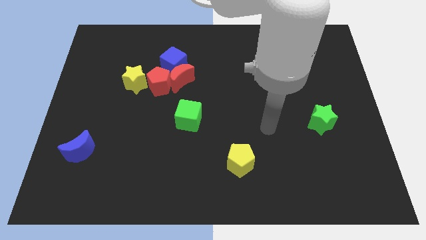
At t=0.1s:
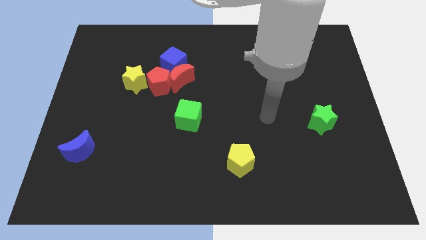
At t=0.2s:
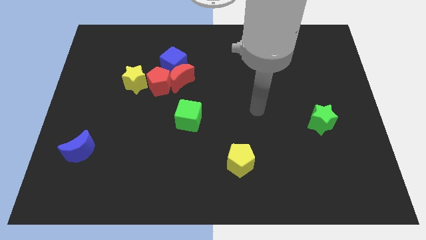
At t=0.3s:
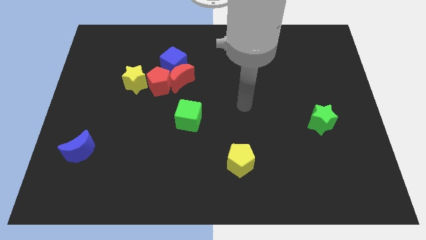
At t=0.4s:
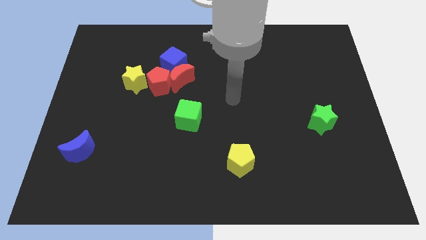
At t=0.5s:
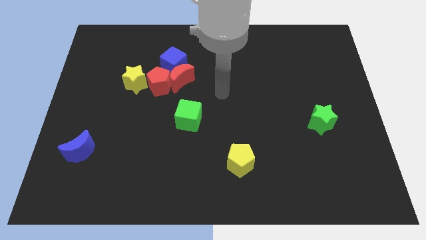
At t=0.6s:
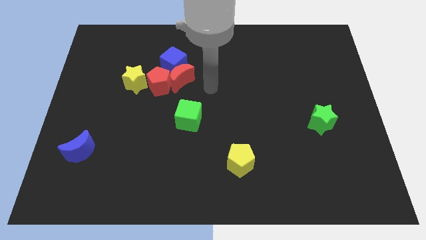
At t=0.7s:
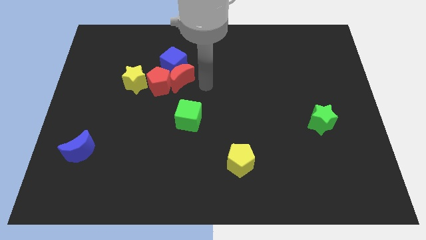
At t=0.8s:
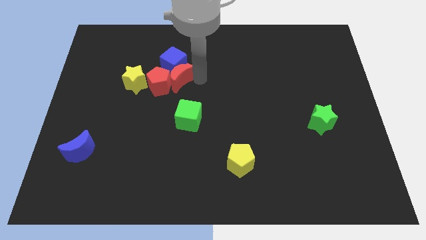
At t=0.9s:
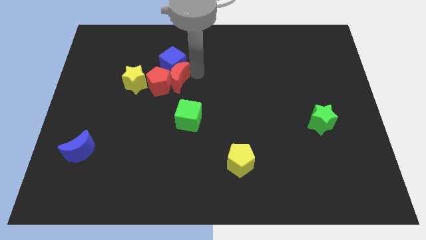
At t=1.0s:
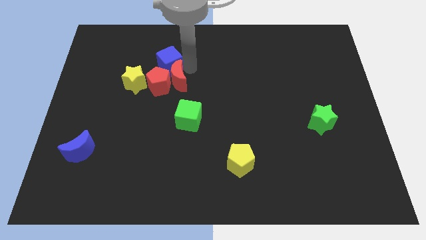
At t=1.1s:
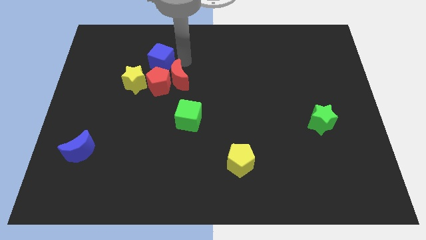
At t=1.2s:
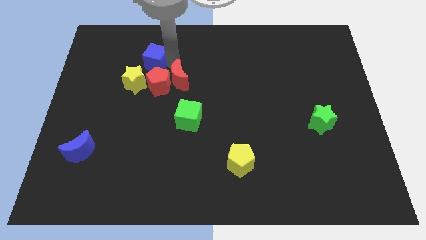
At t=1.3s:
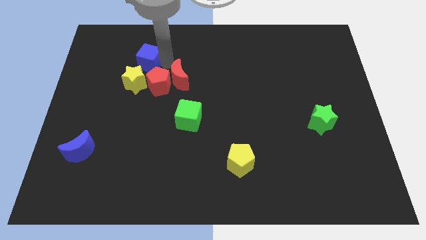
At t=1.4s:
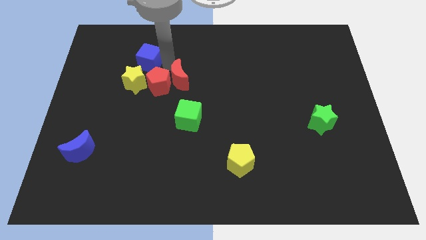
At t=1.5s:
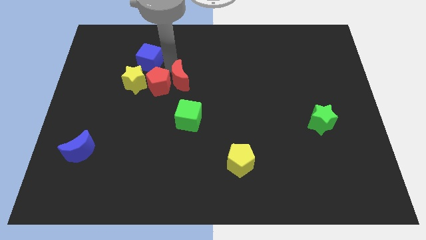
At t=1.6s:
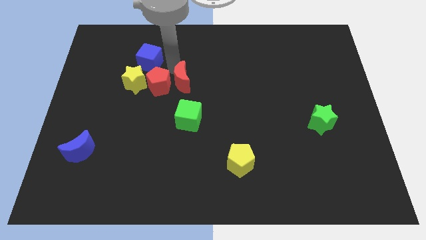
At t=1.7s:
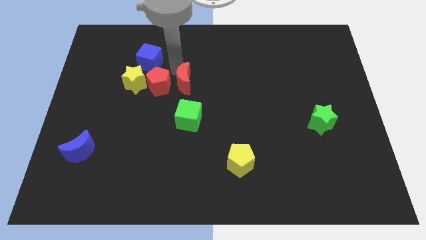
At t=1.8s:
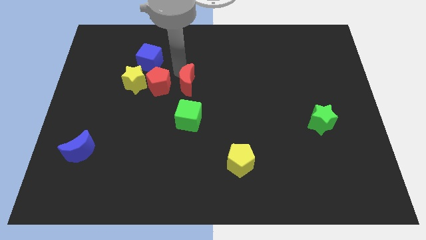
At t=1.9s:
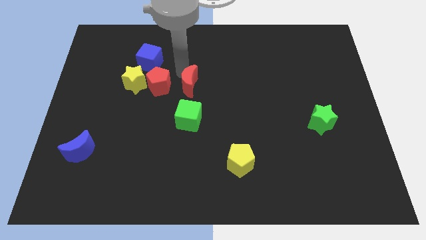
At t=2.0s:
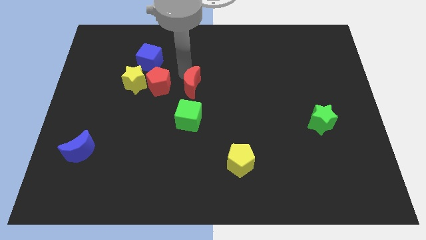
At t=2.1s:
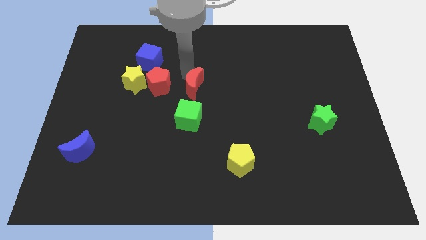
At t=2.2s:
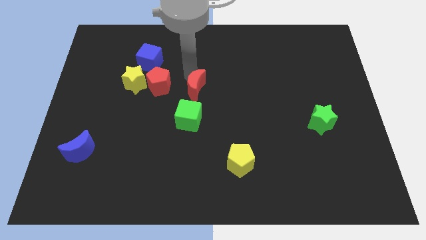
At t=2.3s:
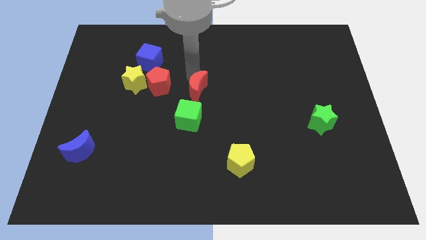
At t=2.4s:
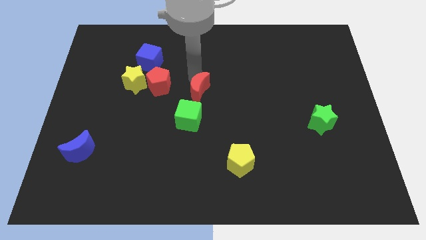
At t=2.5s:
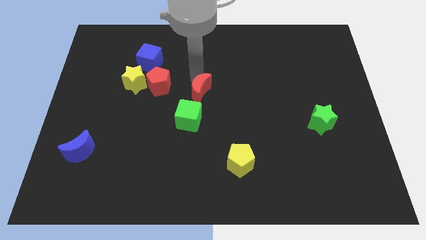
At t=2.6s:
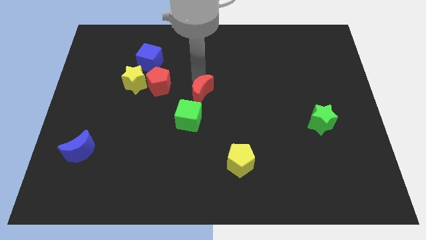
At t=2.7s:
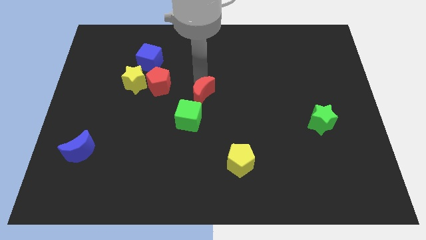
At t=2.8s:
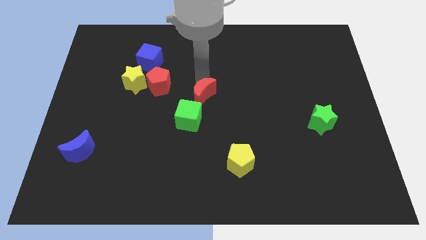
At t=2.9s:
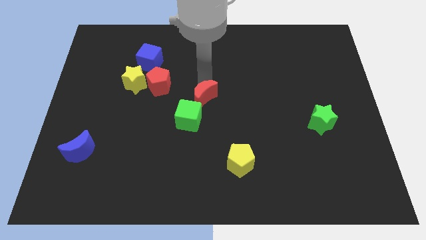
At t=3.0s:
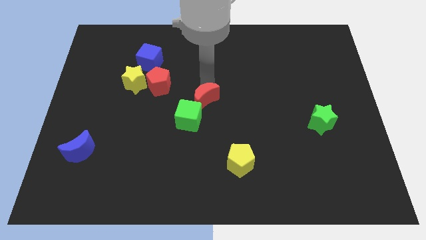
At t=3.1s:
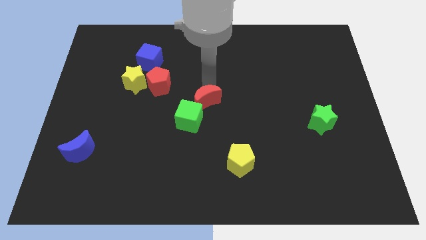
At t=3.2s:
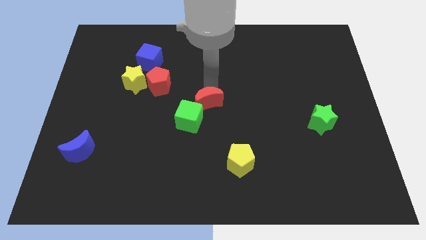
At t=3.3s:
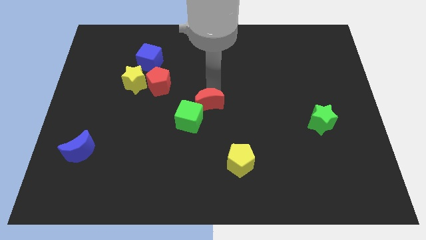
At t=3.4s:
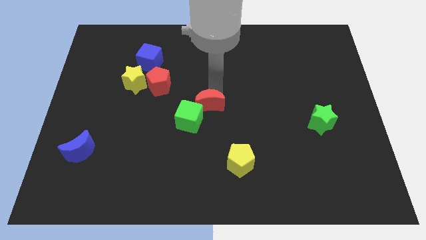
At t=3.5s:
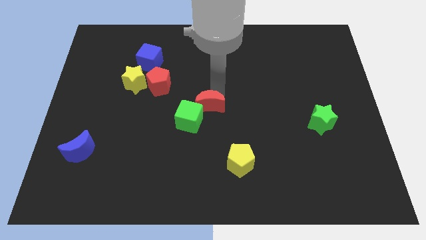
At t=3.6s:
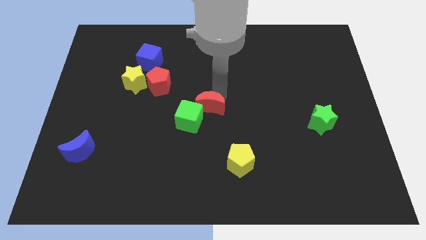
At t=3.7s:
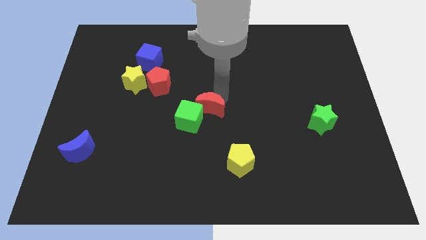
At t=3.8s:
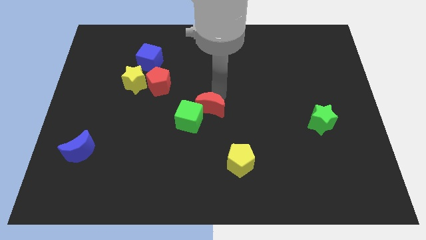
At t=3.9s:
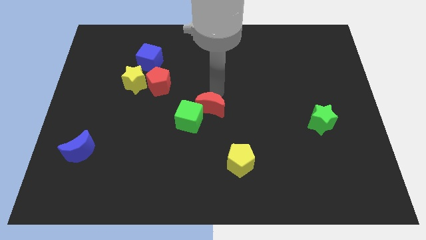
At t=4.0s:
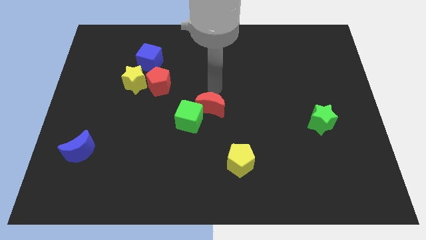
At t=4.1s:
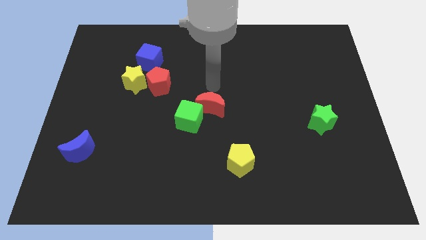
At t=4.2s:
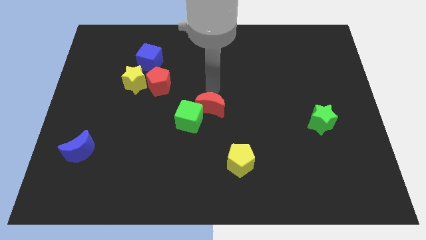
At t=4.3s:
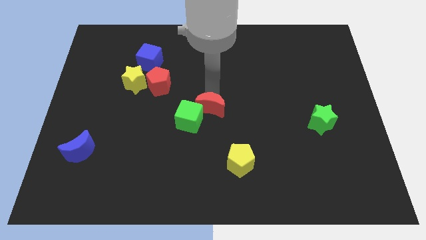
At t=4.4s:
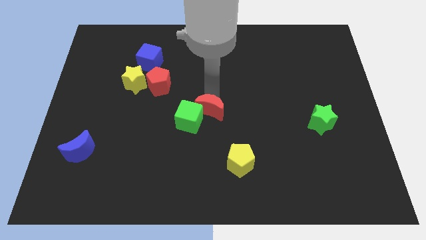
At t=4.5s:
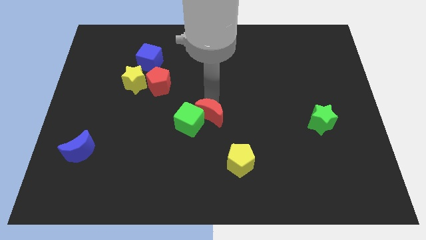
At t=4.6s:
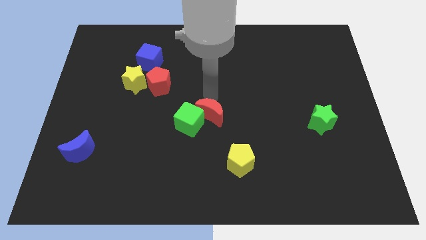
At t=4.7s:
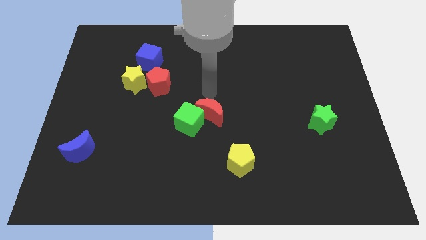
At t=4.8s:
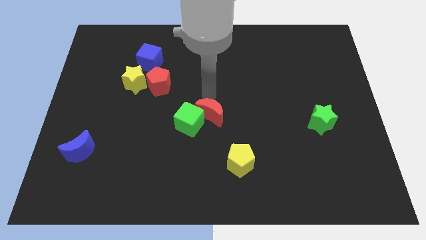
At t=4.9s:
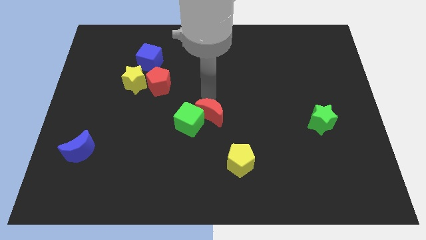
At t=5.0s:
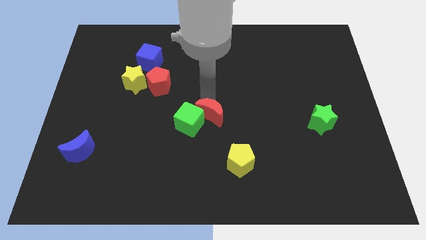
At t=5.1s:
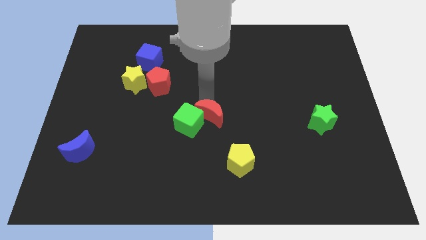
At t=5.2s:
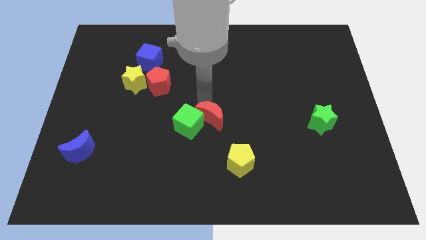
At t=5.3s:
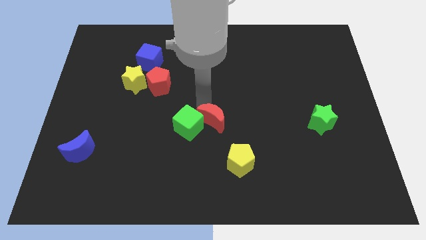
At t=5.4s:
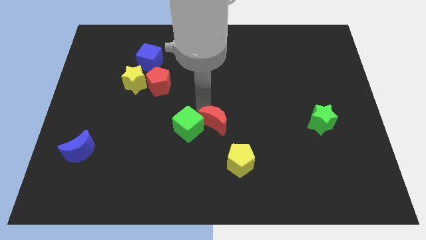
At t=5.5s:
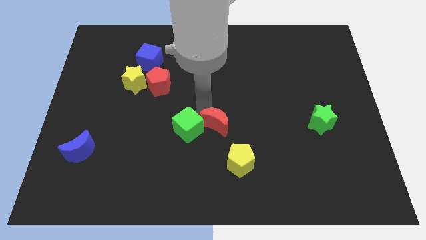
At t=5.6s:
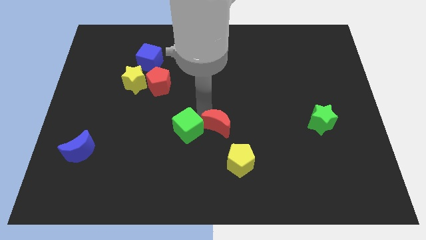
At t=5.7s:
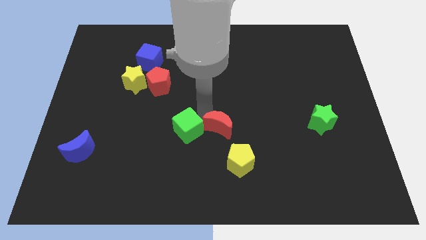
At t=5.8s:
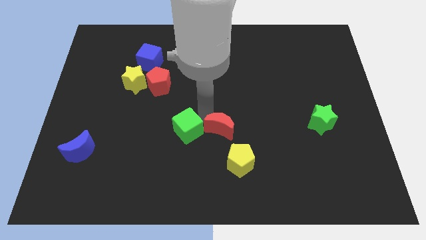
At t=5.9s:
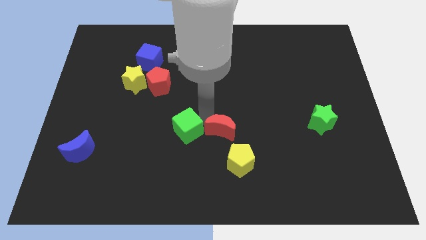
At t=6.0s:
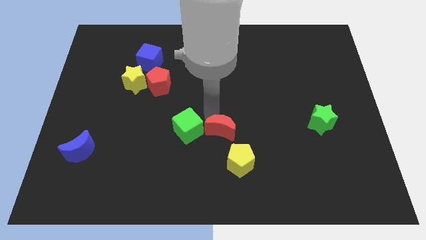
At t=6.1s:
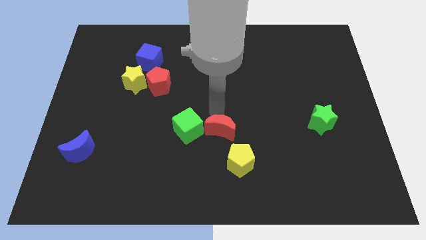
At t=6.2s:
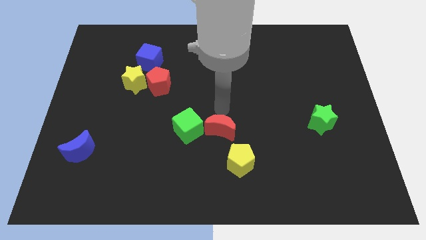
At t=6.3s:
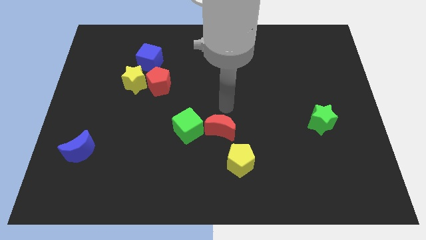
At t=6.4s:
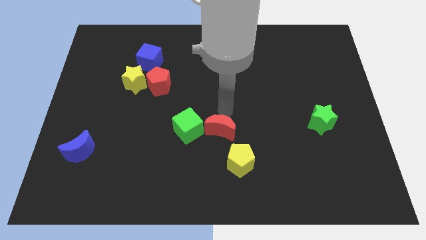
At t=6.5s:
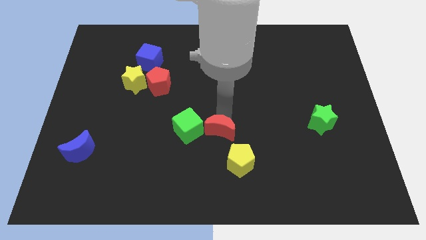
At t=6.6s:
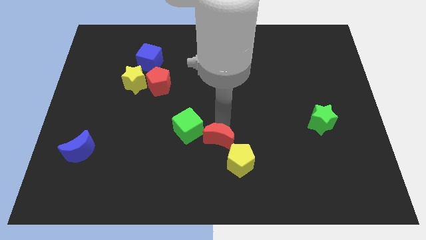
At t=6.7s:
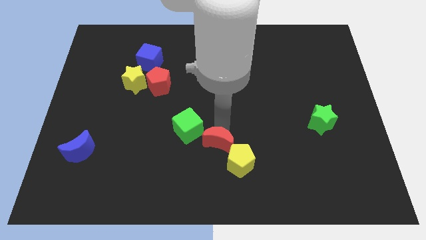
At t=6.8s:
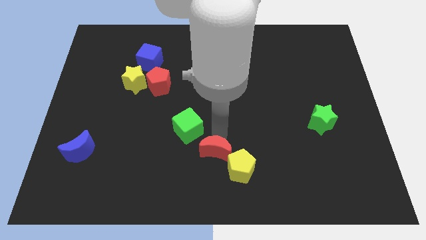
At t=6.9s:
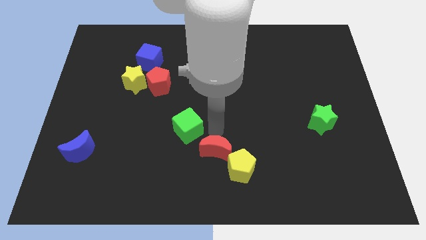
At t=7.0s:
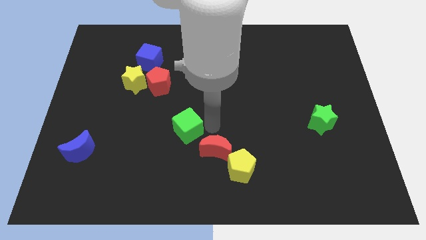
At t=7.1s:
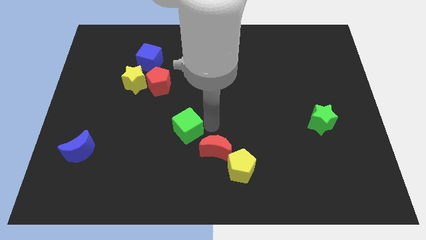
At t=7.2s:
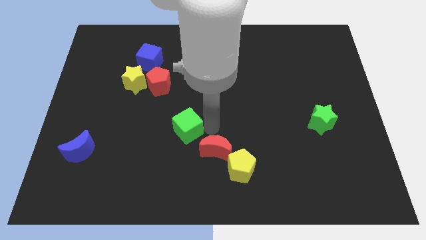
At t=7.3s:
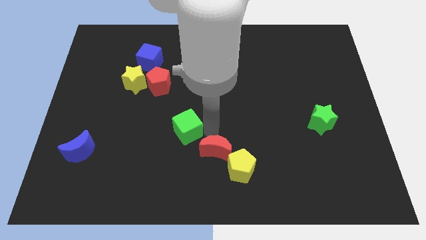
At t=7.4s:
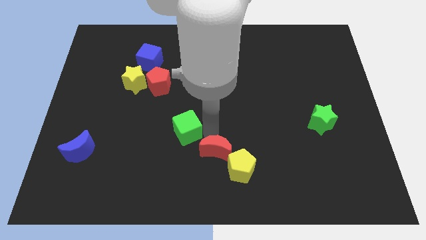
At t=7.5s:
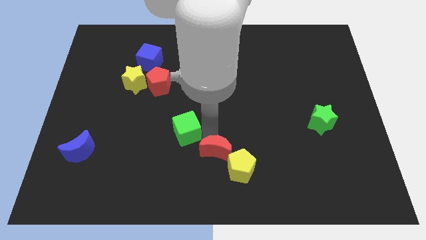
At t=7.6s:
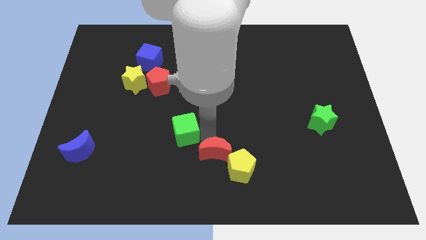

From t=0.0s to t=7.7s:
move the red moon to the bottom

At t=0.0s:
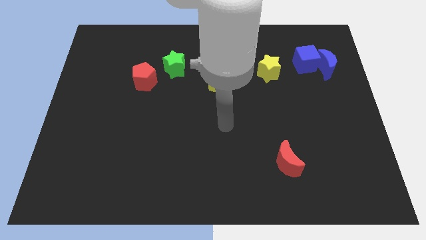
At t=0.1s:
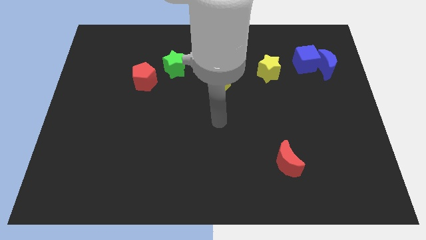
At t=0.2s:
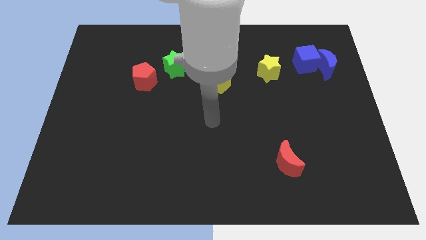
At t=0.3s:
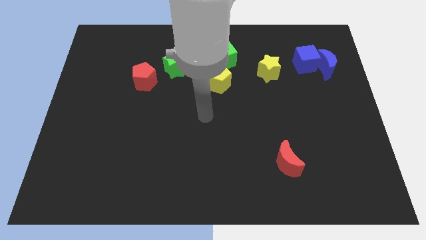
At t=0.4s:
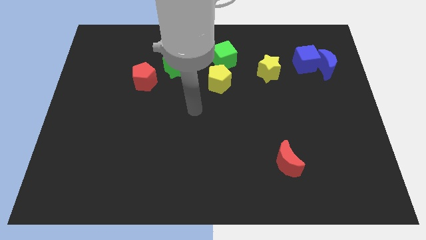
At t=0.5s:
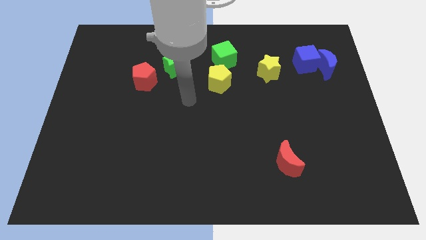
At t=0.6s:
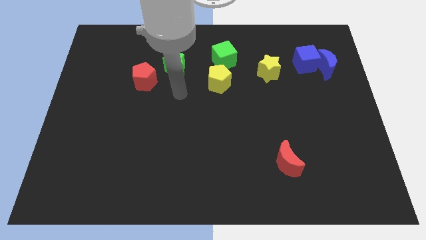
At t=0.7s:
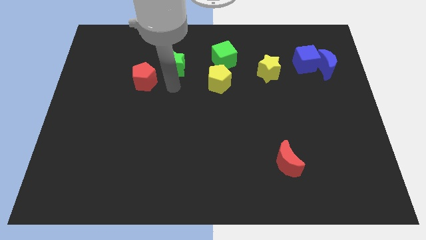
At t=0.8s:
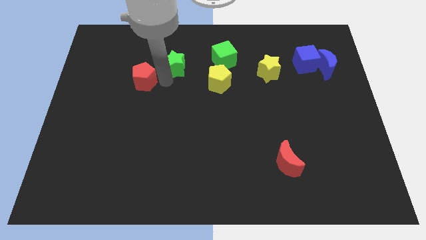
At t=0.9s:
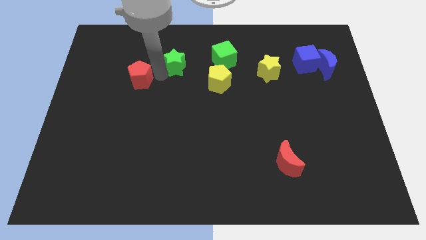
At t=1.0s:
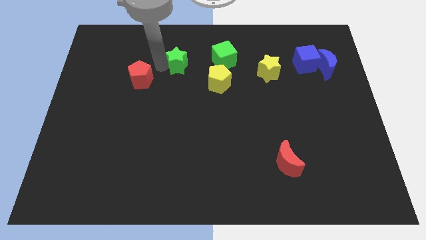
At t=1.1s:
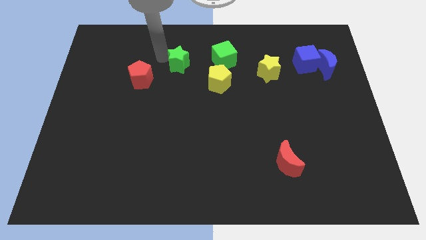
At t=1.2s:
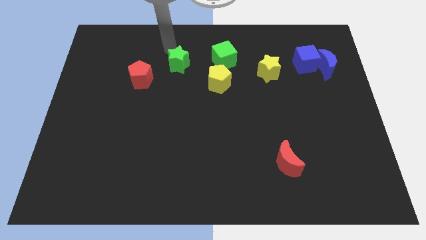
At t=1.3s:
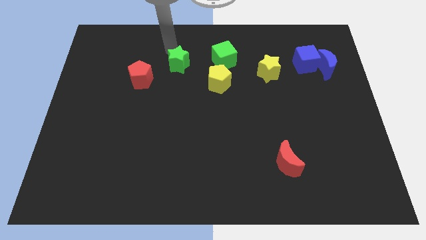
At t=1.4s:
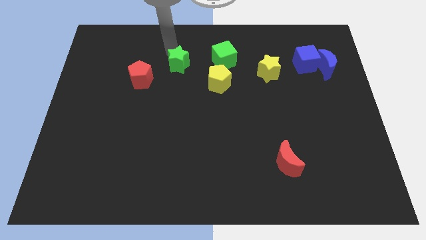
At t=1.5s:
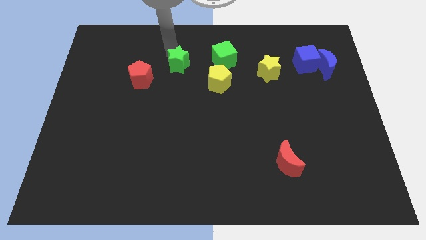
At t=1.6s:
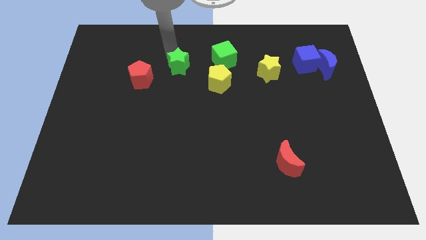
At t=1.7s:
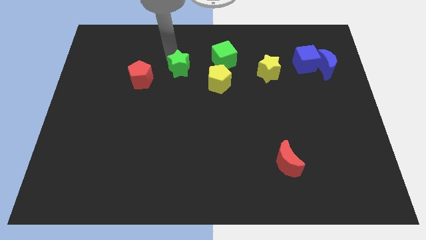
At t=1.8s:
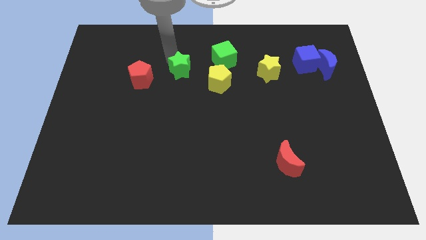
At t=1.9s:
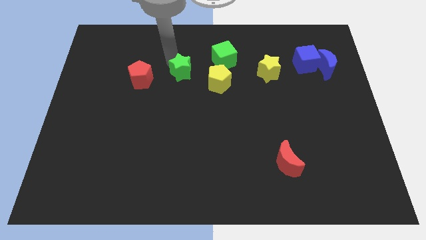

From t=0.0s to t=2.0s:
push the green star to the middle
